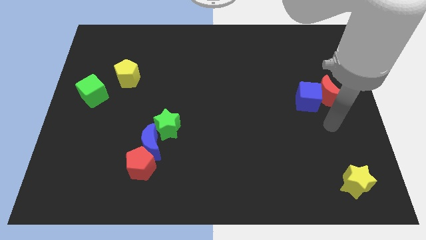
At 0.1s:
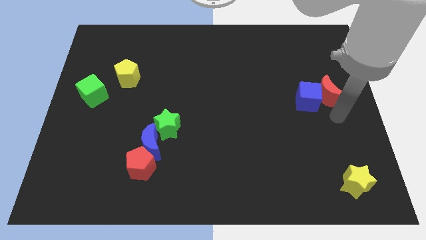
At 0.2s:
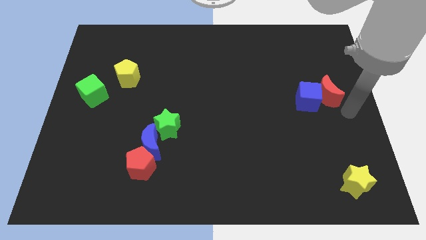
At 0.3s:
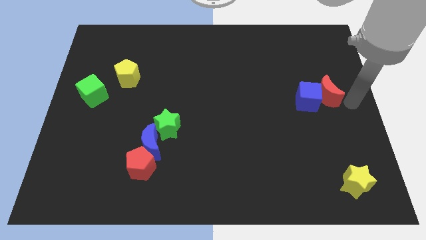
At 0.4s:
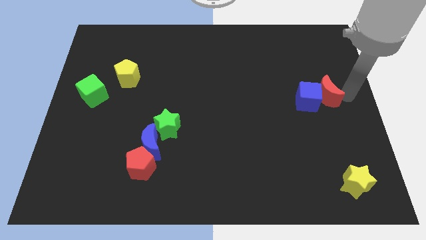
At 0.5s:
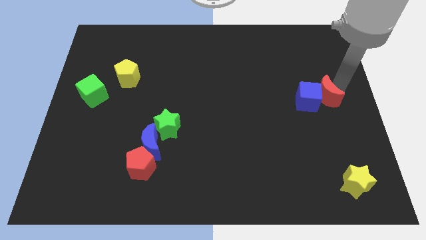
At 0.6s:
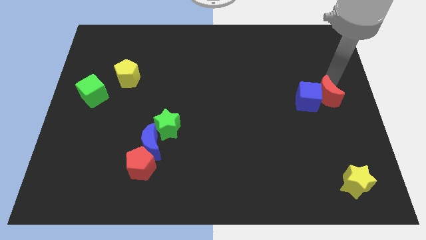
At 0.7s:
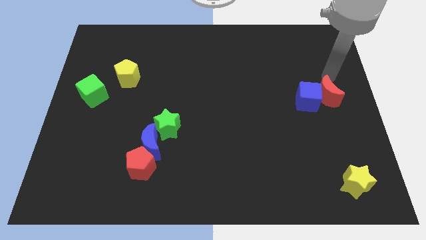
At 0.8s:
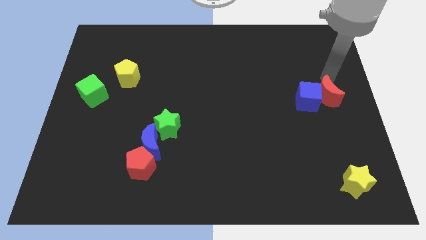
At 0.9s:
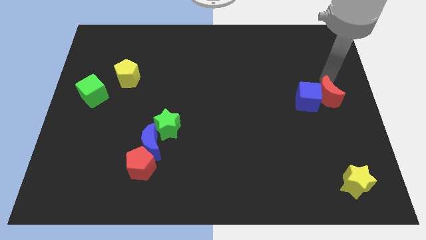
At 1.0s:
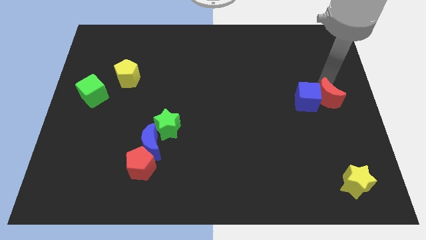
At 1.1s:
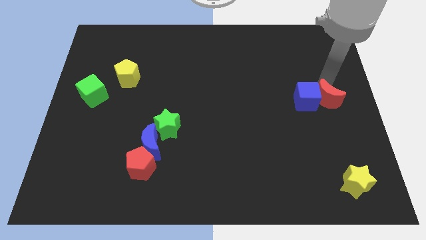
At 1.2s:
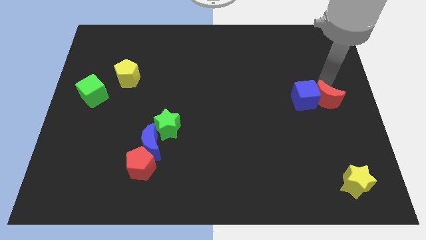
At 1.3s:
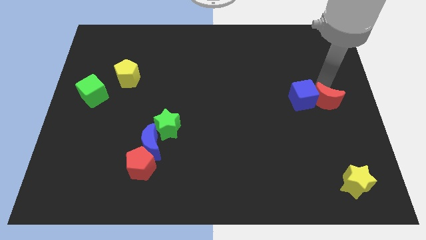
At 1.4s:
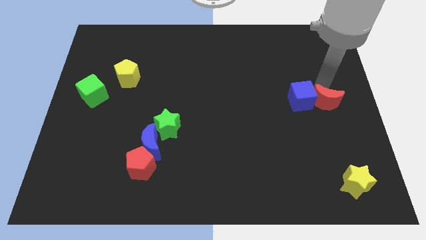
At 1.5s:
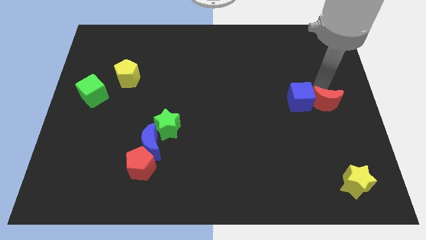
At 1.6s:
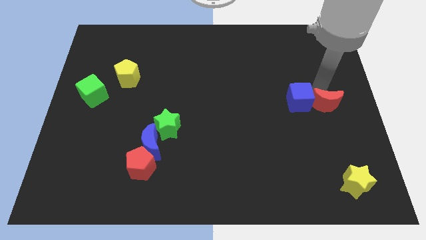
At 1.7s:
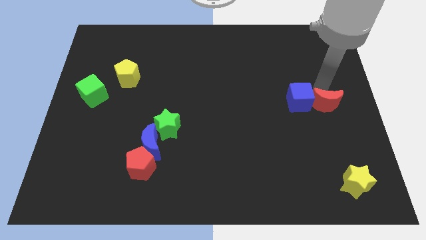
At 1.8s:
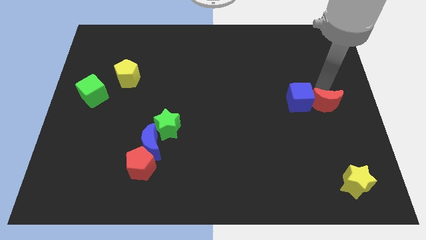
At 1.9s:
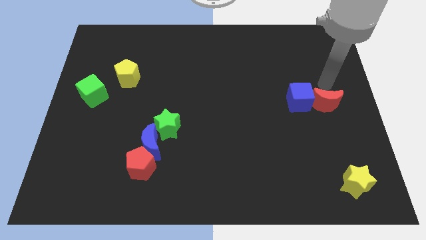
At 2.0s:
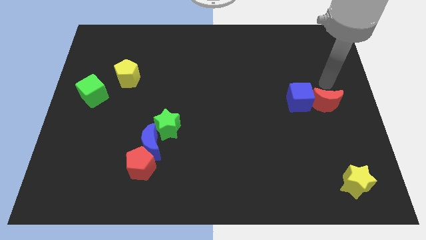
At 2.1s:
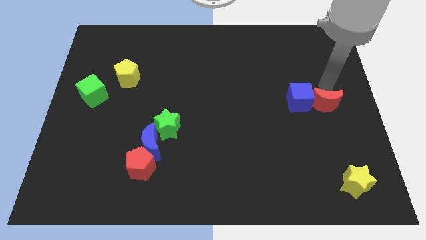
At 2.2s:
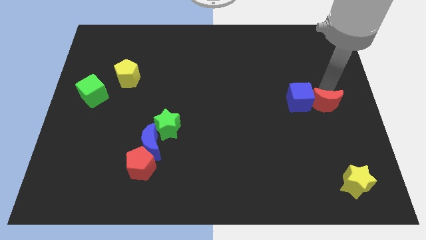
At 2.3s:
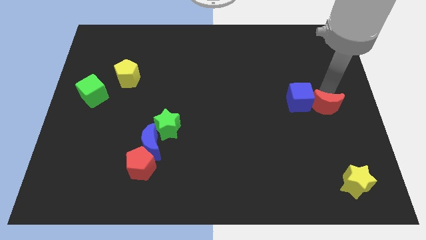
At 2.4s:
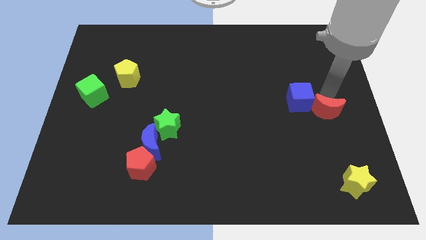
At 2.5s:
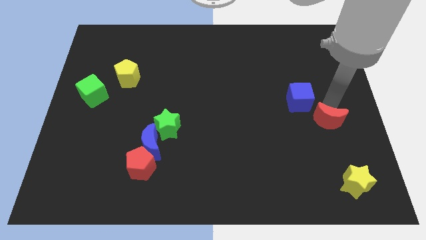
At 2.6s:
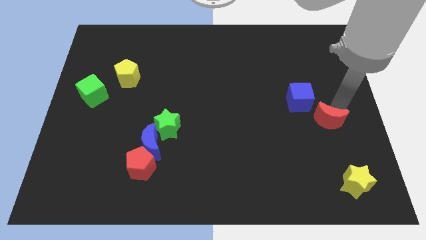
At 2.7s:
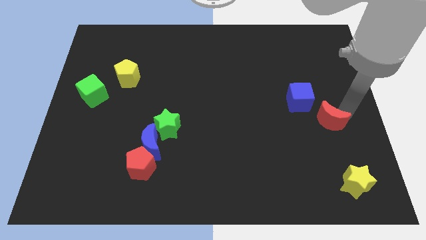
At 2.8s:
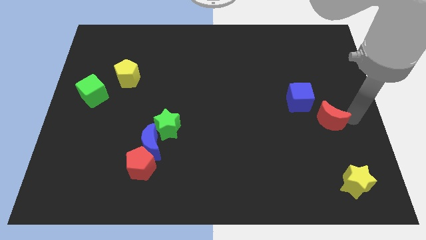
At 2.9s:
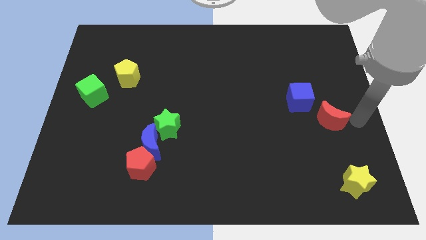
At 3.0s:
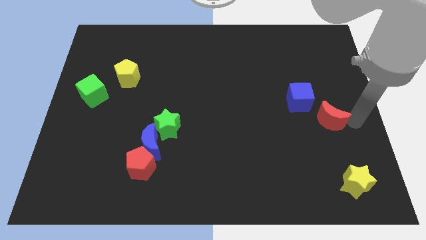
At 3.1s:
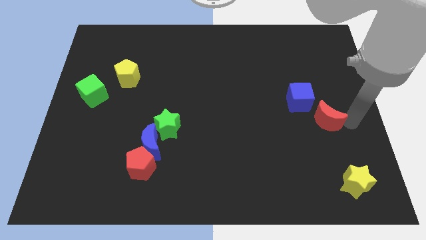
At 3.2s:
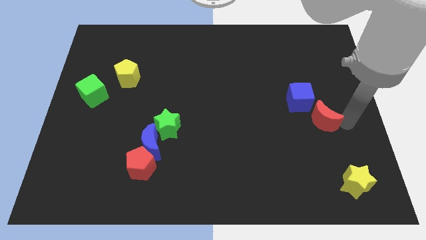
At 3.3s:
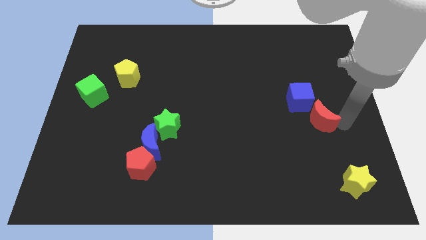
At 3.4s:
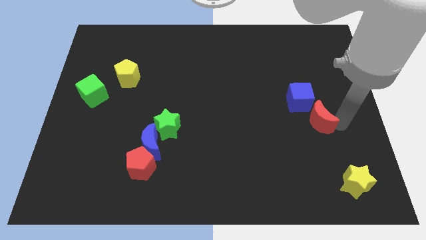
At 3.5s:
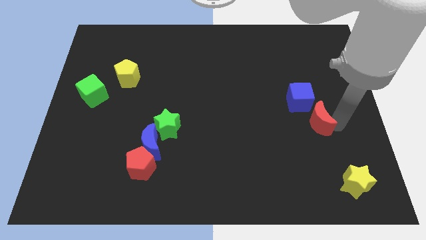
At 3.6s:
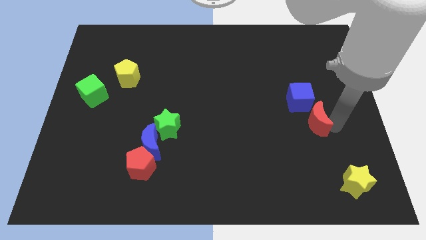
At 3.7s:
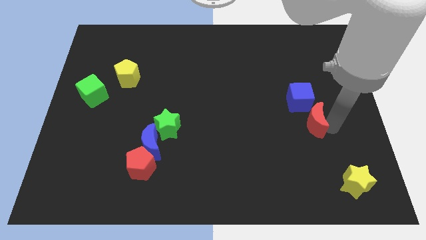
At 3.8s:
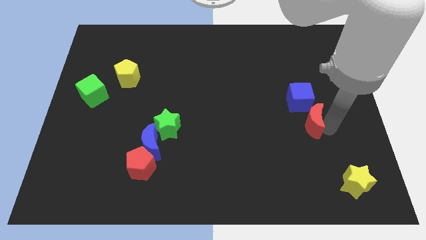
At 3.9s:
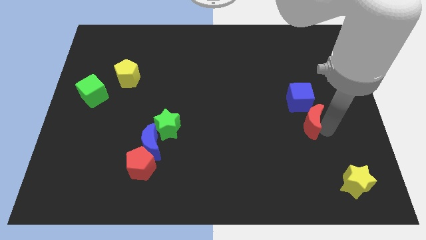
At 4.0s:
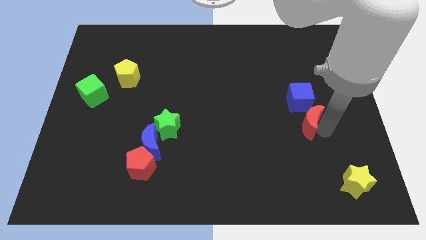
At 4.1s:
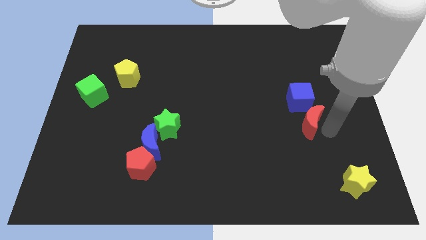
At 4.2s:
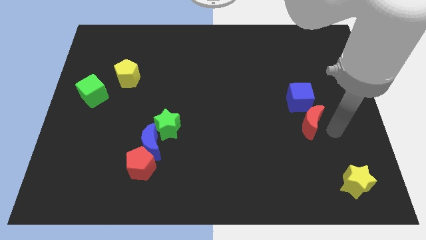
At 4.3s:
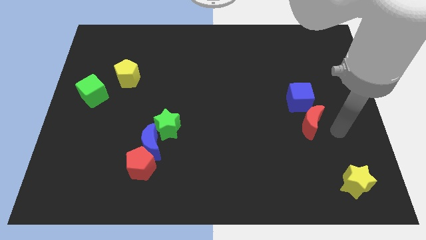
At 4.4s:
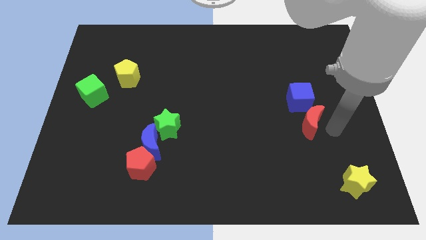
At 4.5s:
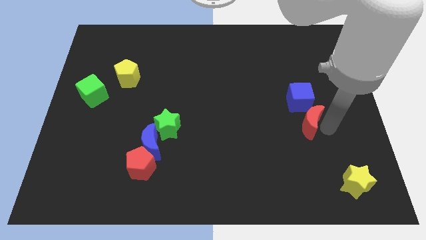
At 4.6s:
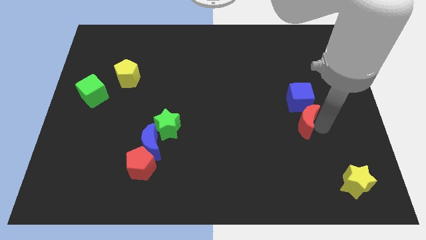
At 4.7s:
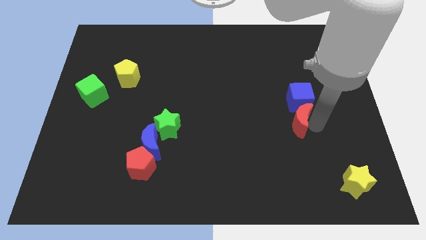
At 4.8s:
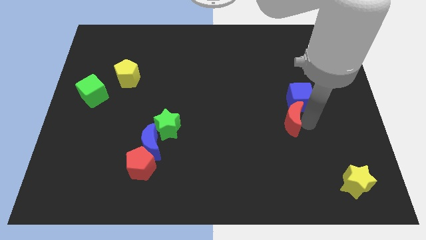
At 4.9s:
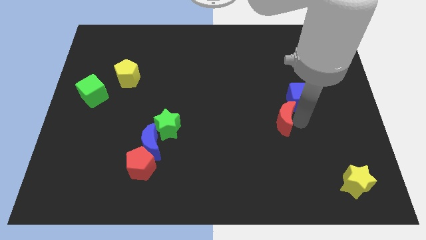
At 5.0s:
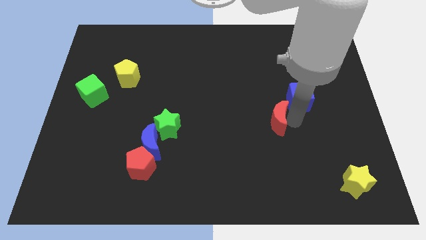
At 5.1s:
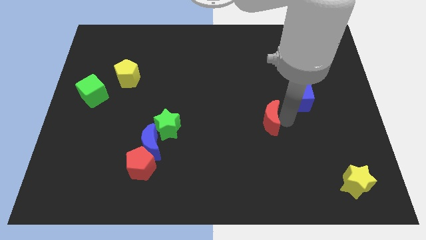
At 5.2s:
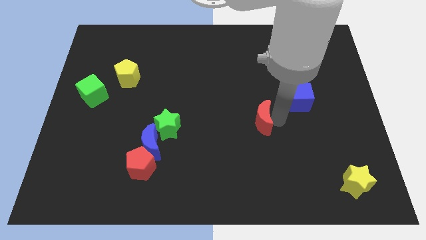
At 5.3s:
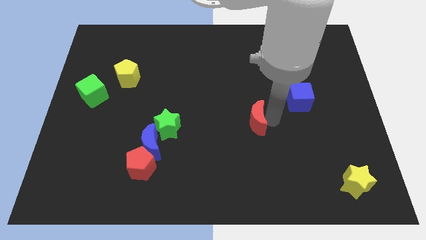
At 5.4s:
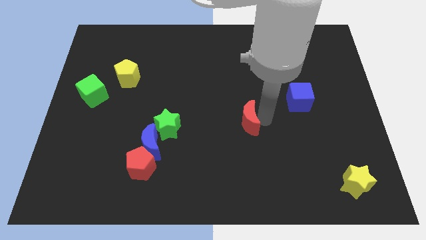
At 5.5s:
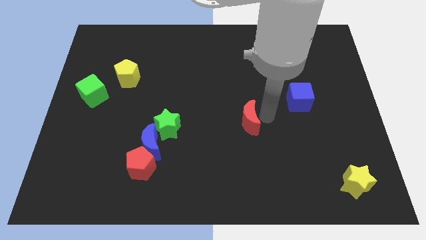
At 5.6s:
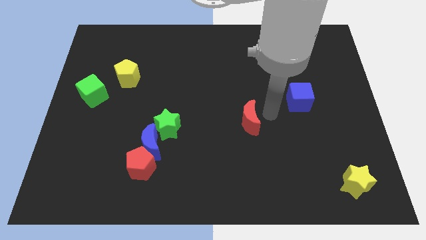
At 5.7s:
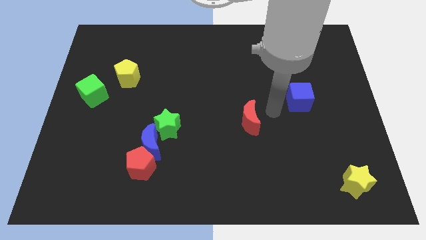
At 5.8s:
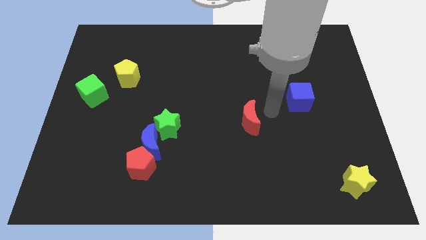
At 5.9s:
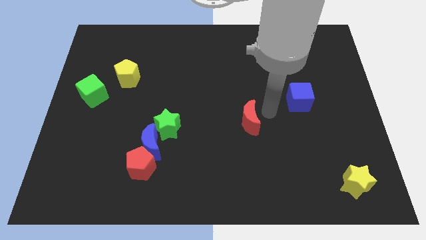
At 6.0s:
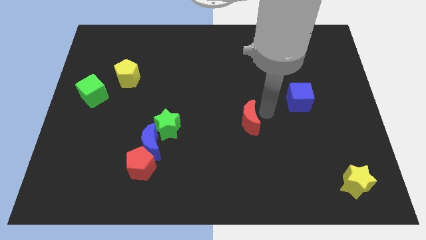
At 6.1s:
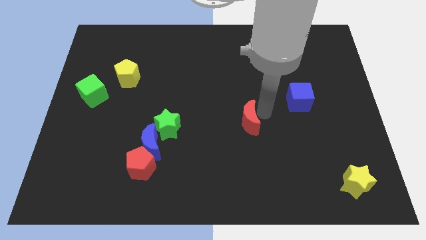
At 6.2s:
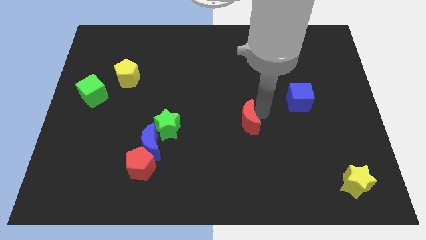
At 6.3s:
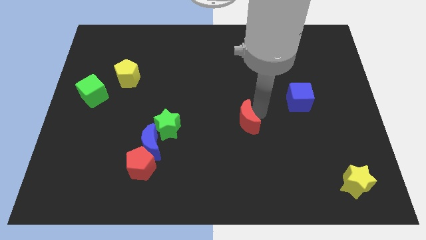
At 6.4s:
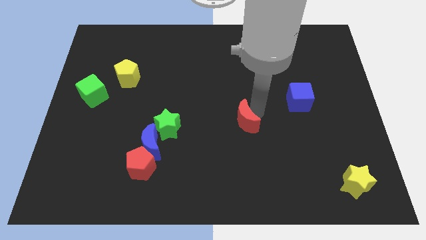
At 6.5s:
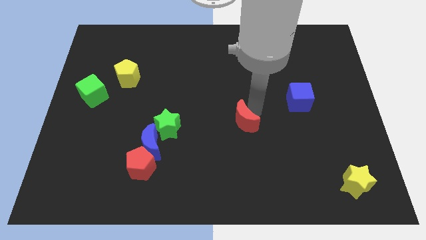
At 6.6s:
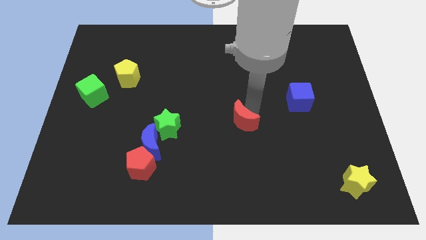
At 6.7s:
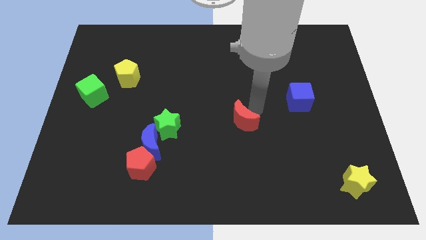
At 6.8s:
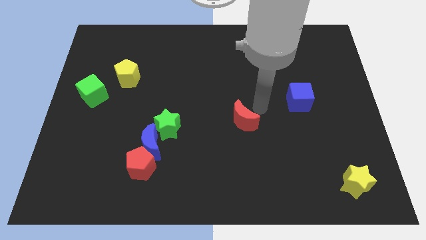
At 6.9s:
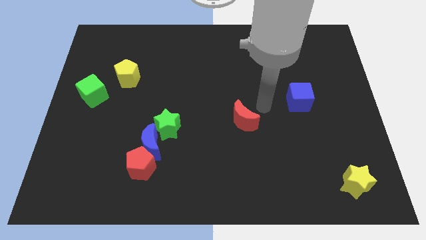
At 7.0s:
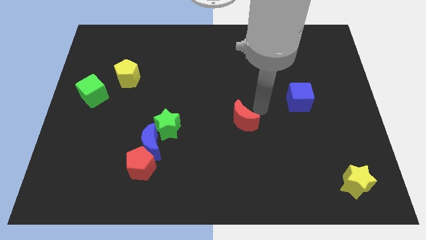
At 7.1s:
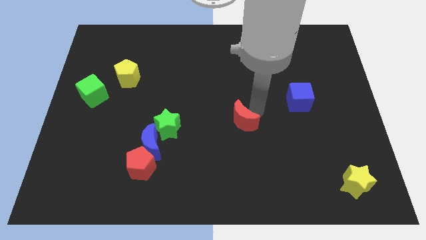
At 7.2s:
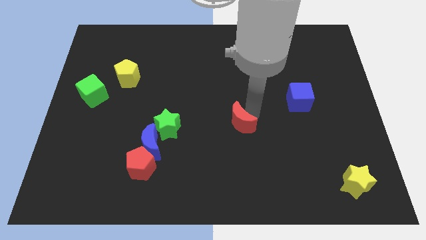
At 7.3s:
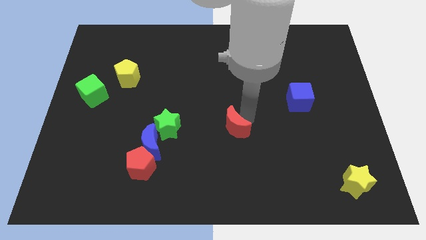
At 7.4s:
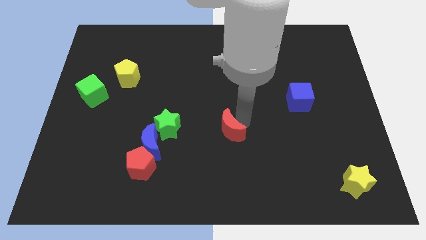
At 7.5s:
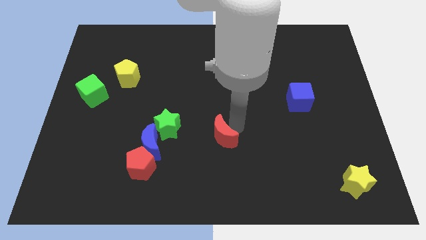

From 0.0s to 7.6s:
slide the red moon to the right side of the blue moon

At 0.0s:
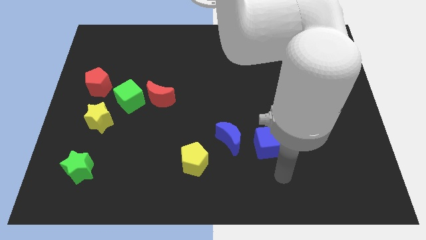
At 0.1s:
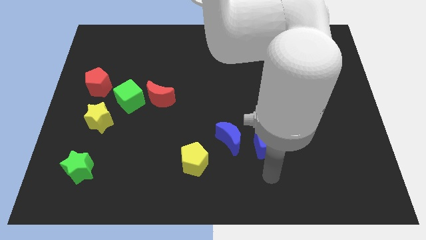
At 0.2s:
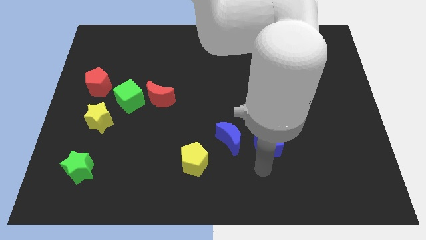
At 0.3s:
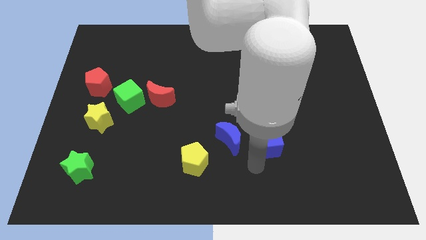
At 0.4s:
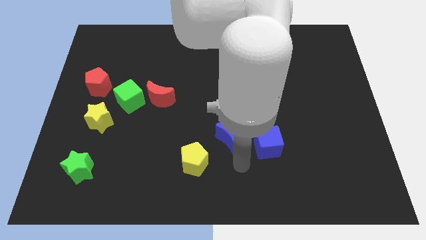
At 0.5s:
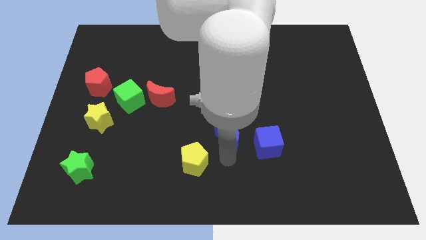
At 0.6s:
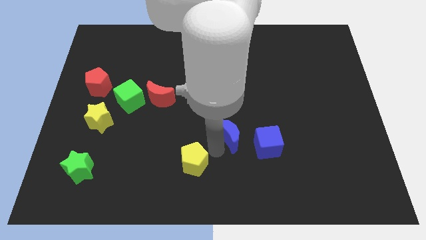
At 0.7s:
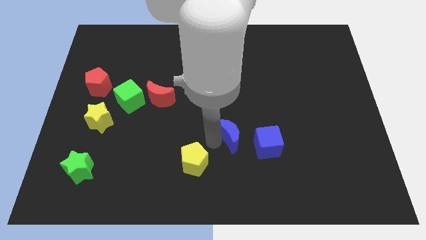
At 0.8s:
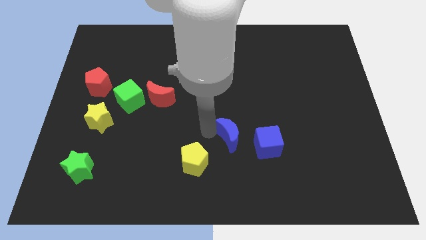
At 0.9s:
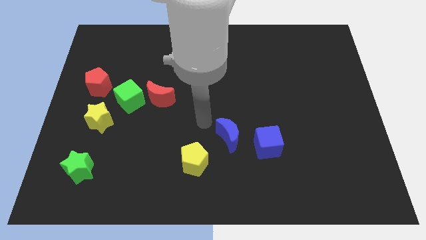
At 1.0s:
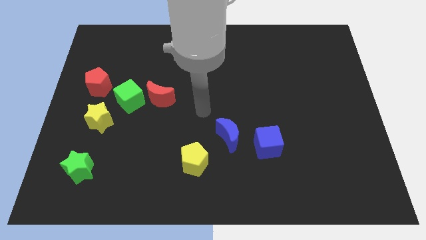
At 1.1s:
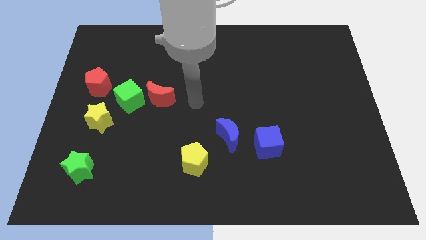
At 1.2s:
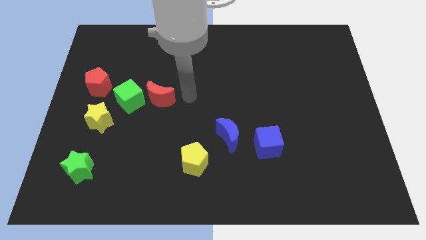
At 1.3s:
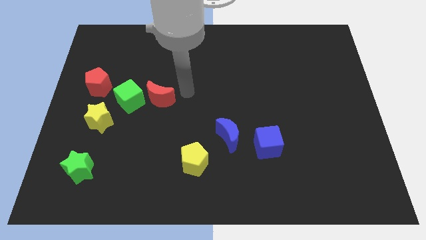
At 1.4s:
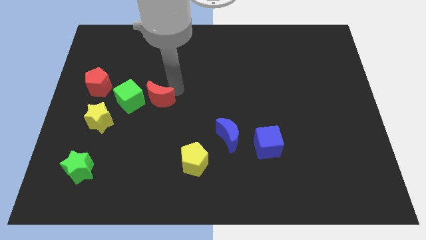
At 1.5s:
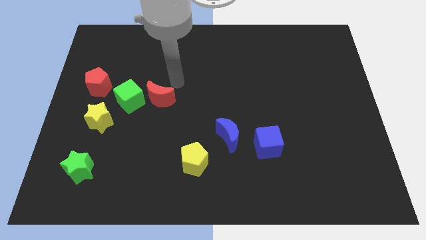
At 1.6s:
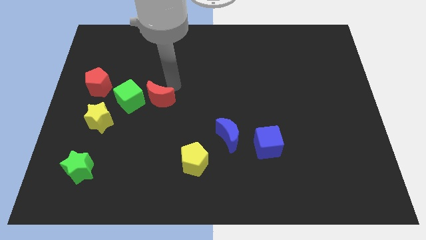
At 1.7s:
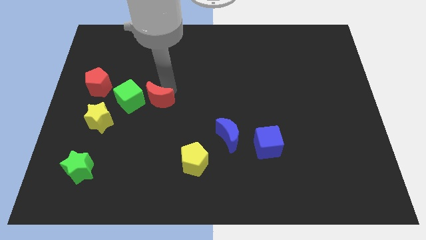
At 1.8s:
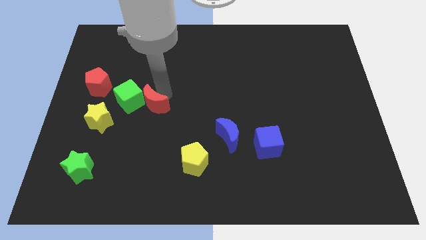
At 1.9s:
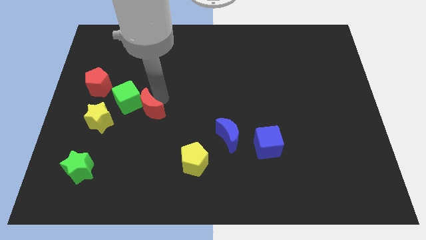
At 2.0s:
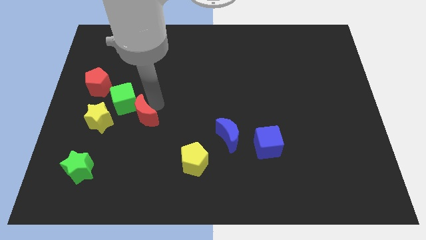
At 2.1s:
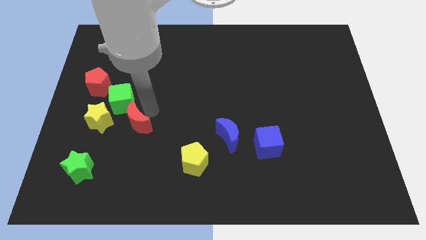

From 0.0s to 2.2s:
move the red moon to the bottom of the green cube
